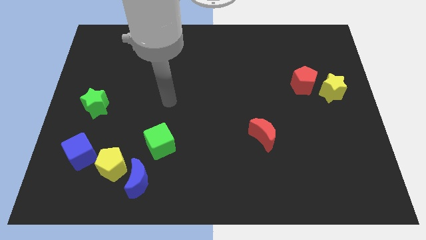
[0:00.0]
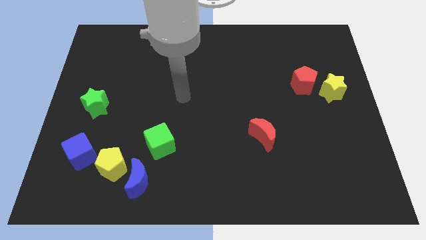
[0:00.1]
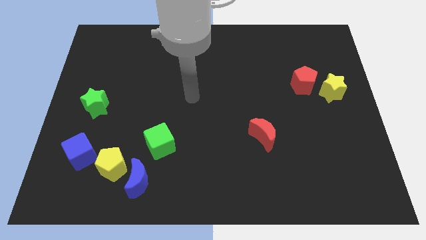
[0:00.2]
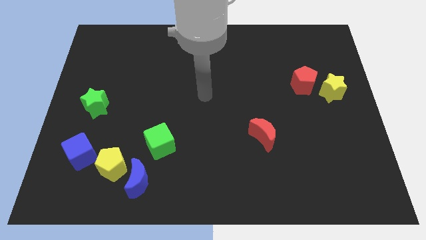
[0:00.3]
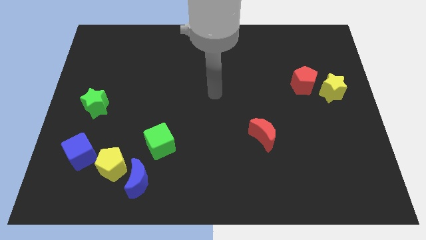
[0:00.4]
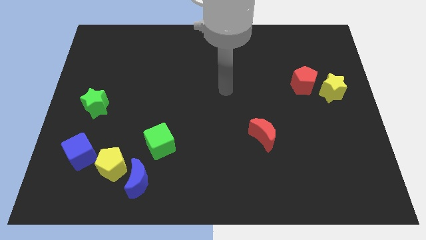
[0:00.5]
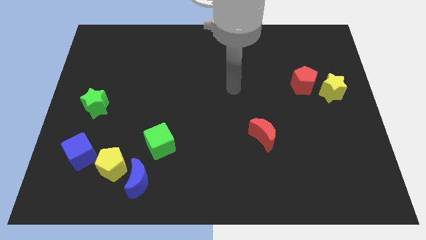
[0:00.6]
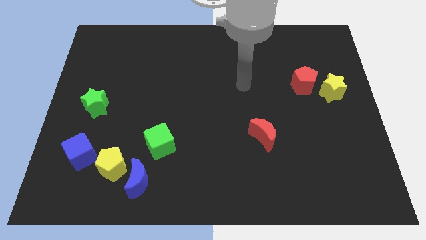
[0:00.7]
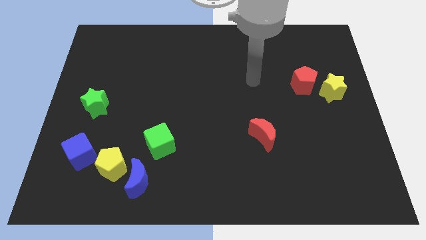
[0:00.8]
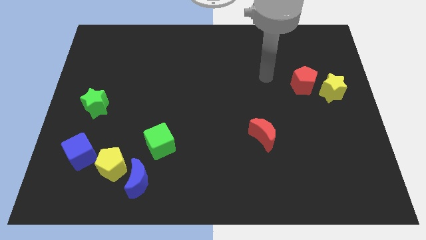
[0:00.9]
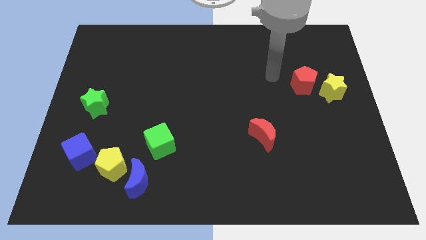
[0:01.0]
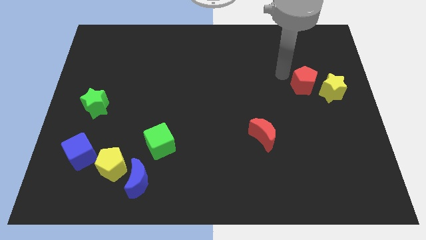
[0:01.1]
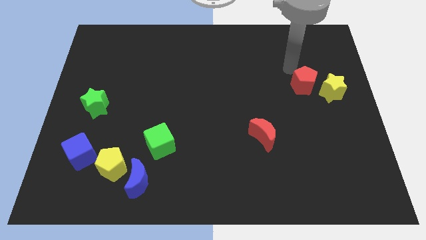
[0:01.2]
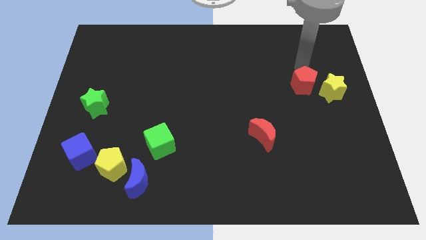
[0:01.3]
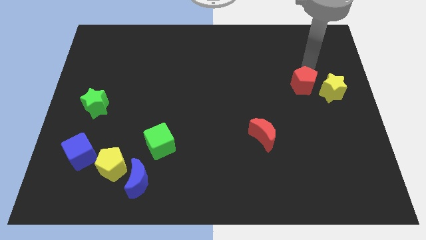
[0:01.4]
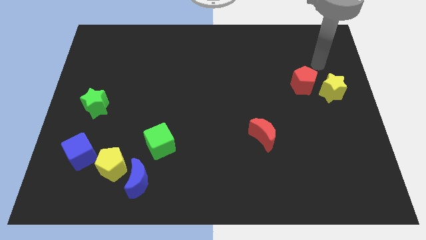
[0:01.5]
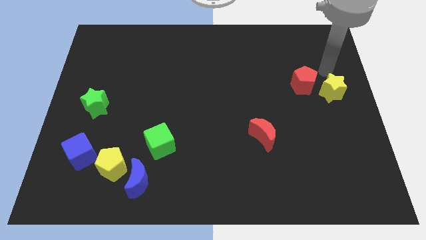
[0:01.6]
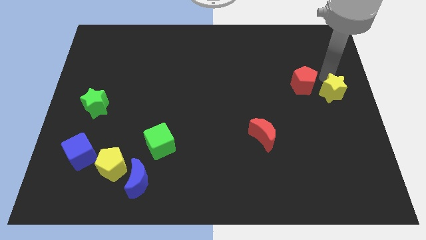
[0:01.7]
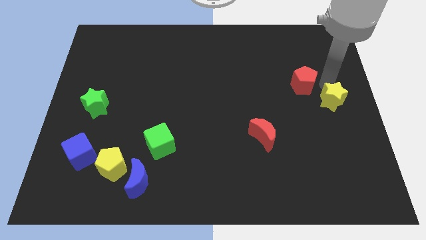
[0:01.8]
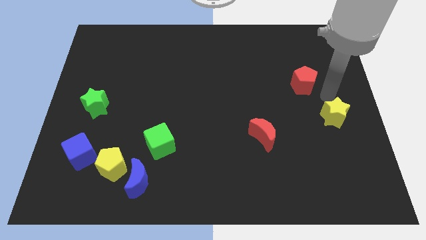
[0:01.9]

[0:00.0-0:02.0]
pull the red pentagon apart from the yellow star

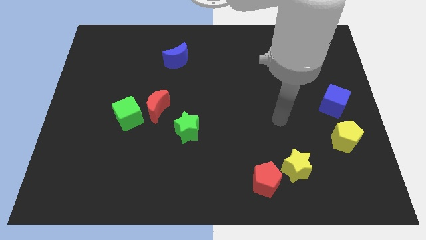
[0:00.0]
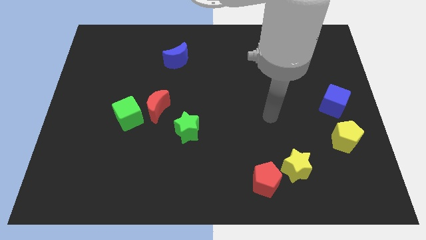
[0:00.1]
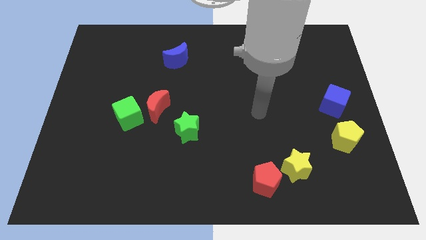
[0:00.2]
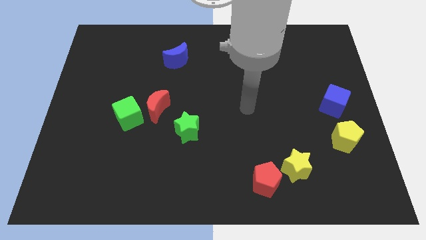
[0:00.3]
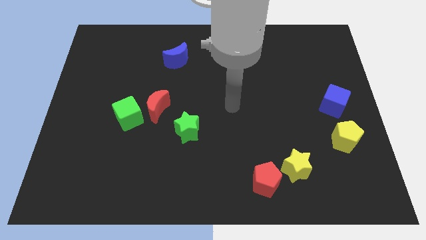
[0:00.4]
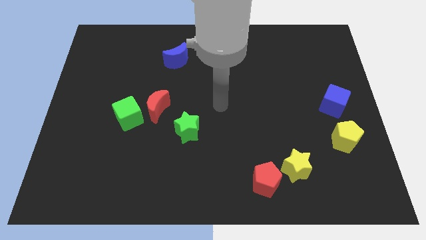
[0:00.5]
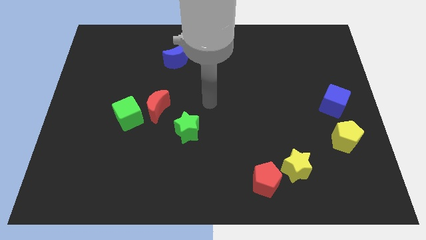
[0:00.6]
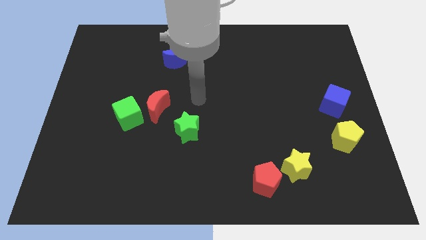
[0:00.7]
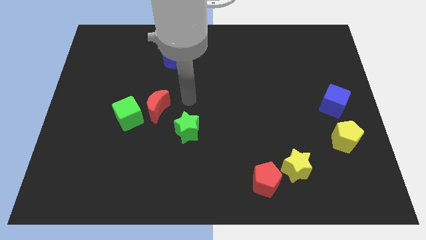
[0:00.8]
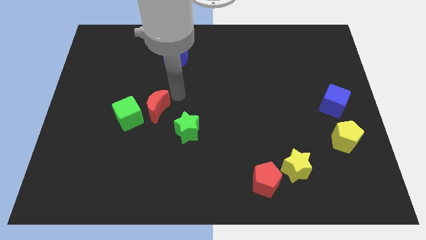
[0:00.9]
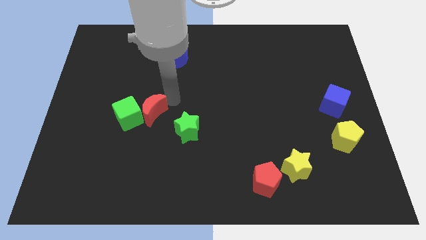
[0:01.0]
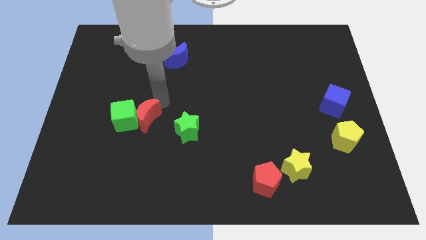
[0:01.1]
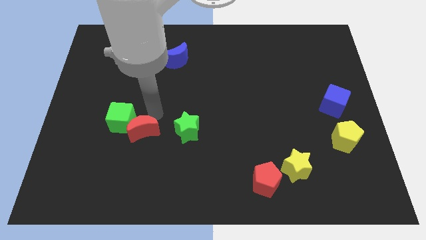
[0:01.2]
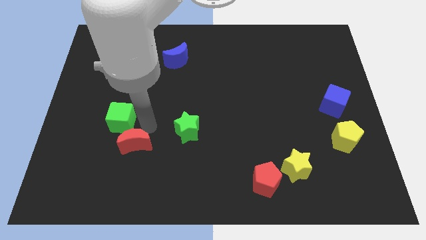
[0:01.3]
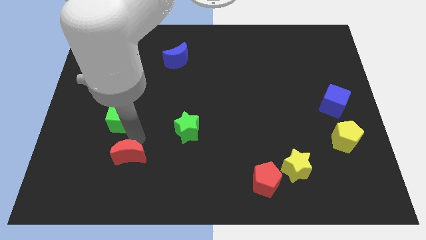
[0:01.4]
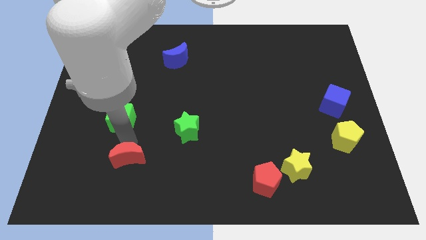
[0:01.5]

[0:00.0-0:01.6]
pull the green cube apart from the red moon

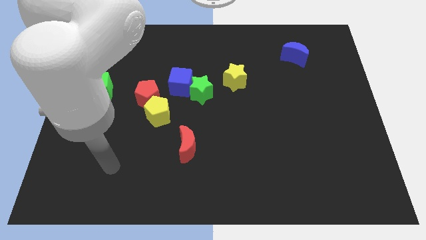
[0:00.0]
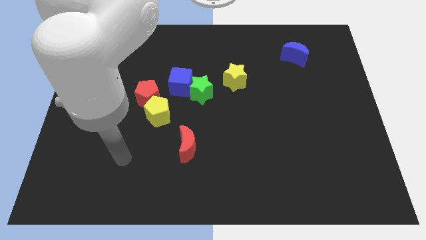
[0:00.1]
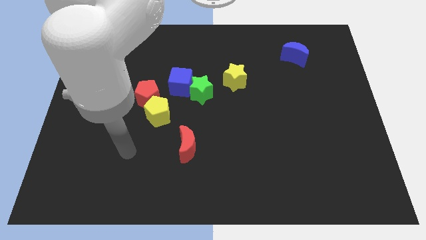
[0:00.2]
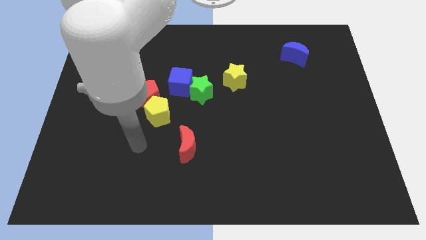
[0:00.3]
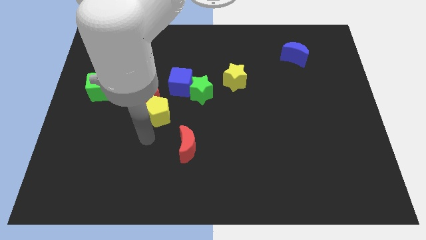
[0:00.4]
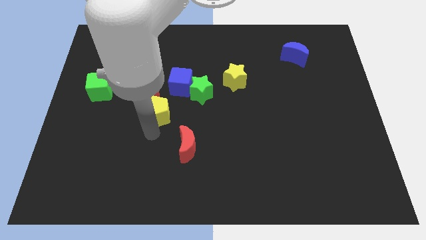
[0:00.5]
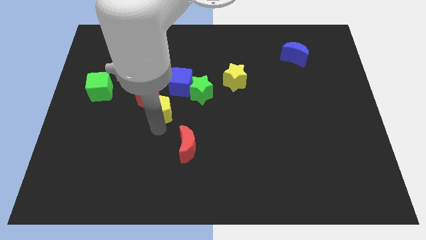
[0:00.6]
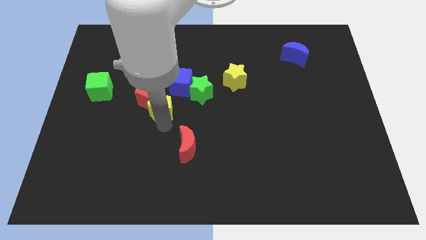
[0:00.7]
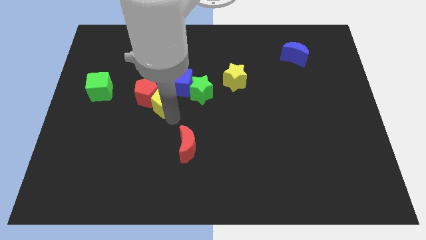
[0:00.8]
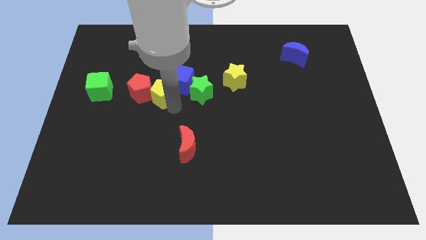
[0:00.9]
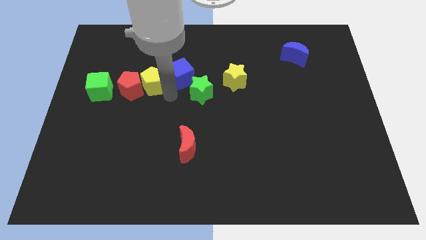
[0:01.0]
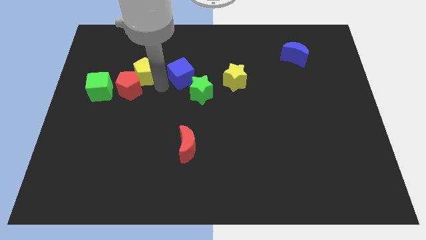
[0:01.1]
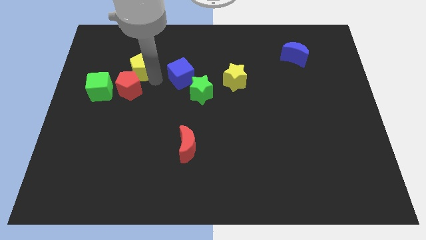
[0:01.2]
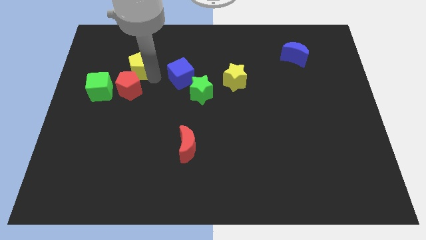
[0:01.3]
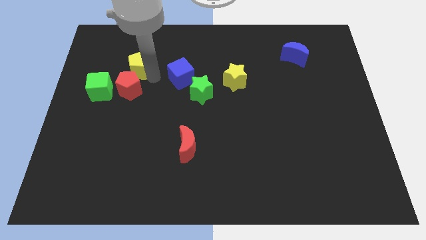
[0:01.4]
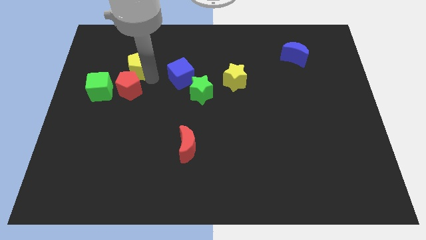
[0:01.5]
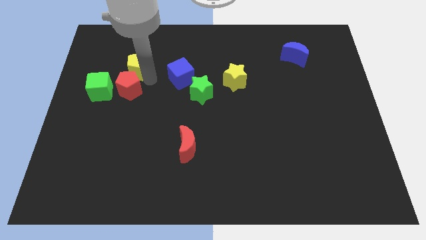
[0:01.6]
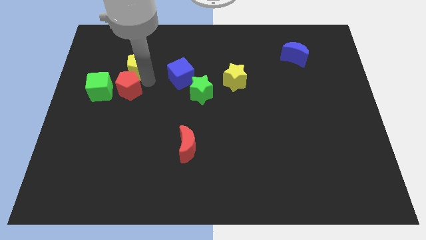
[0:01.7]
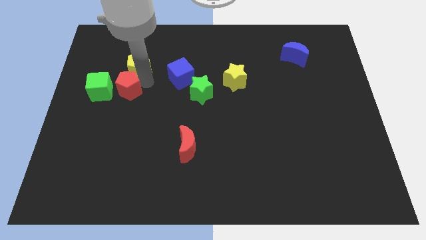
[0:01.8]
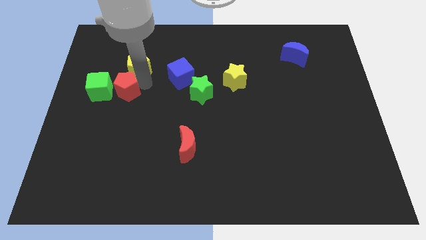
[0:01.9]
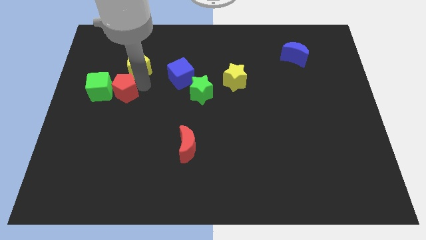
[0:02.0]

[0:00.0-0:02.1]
pull the red pentagon apart from the yellow pentagon and blue cube

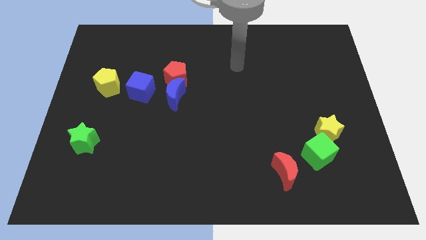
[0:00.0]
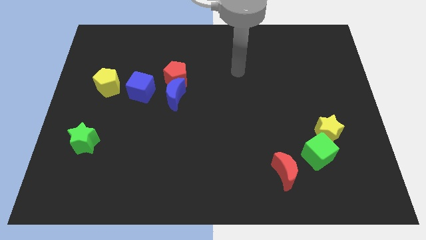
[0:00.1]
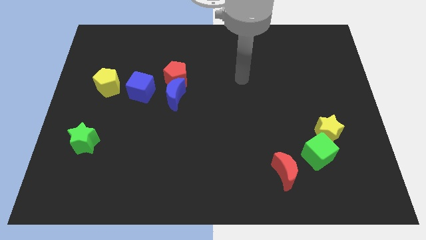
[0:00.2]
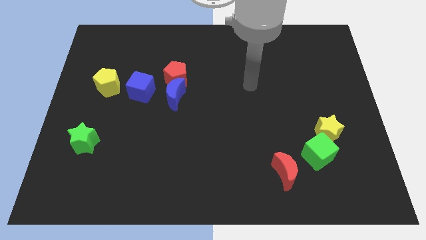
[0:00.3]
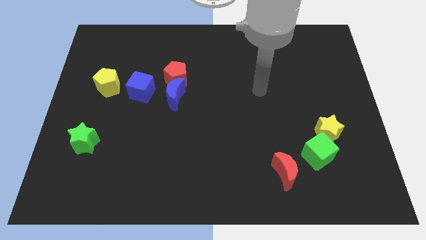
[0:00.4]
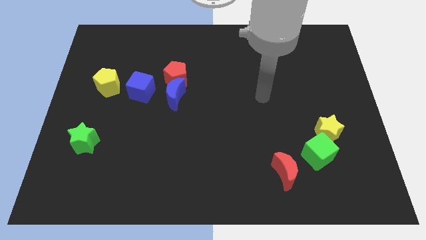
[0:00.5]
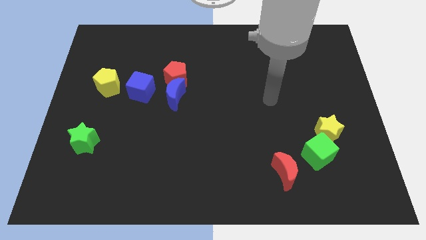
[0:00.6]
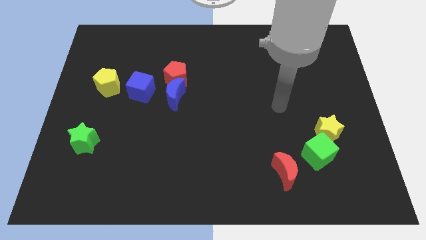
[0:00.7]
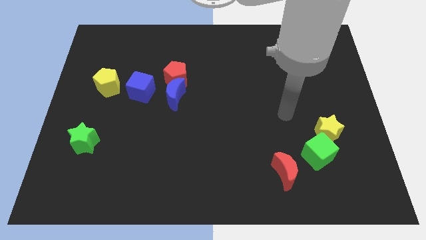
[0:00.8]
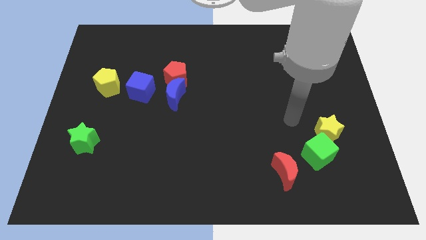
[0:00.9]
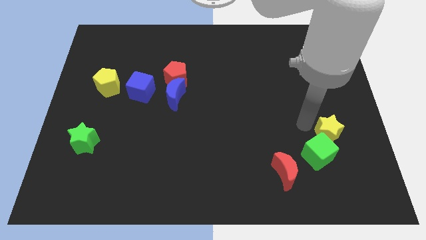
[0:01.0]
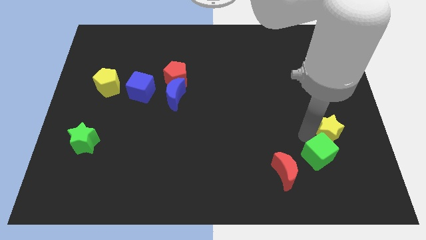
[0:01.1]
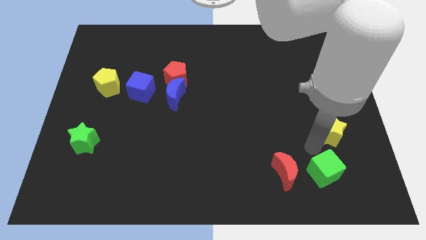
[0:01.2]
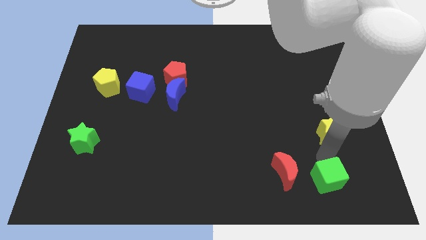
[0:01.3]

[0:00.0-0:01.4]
separate the yellow star from the green cube

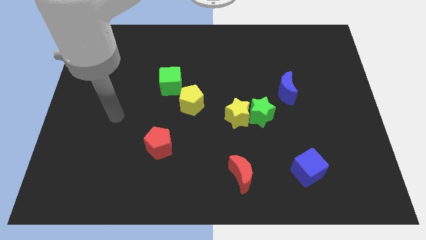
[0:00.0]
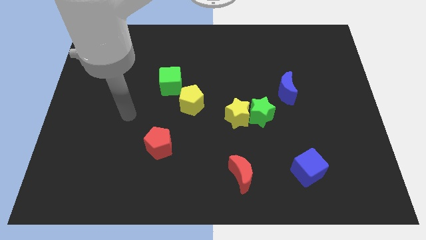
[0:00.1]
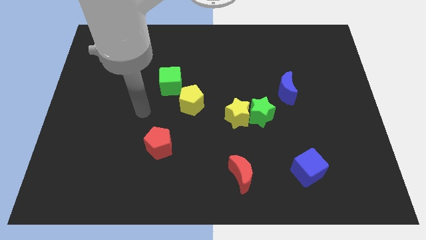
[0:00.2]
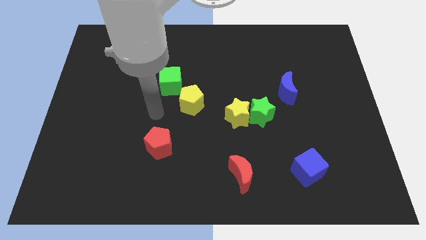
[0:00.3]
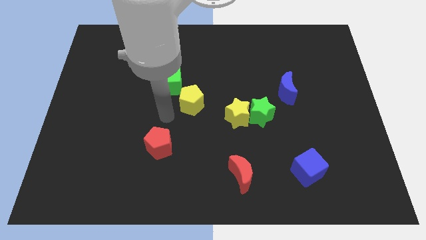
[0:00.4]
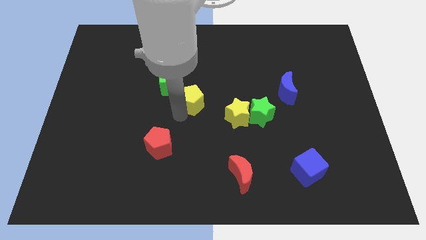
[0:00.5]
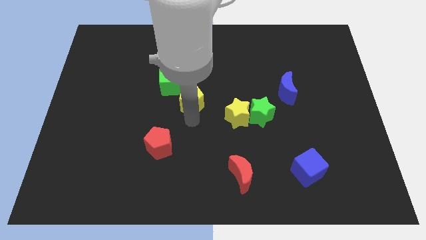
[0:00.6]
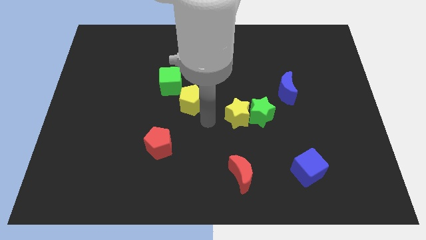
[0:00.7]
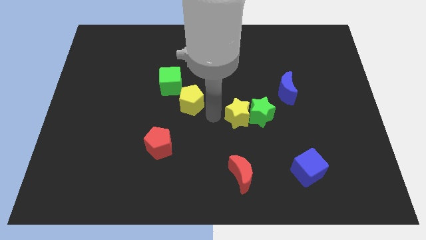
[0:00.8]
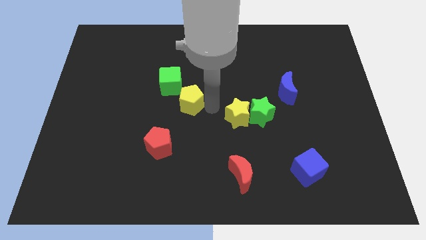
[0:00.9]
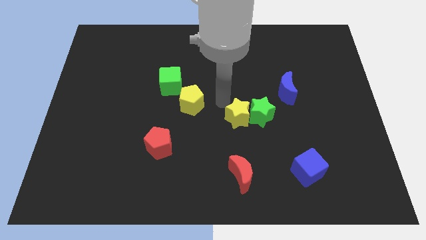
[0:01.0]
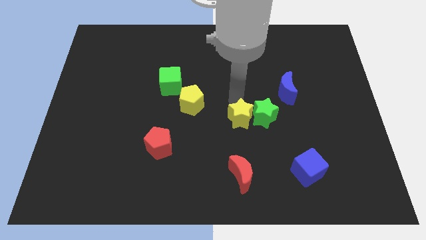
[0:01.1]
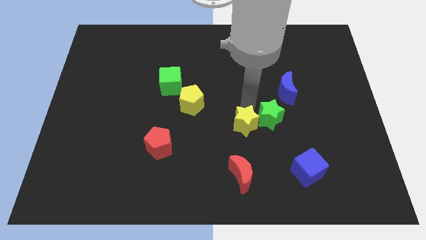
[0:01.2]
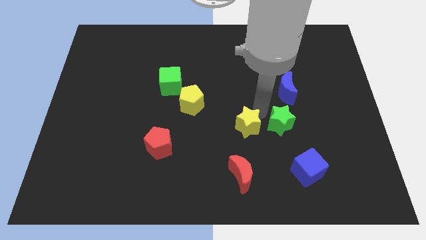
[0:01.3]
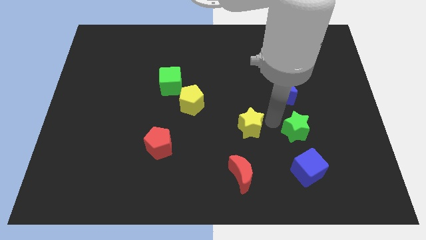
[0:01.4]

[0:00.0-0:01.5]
separate the yellow star from the green star

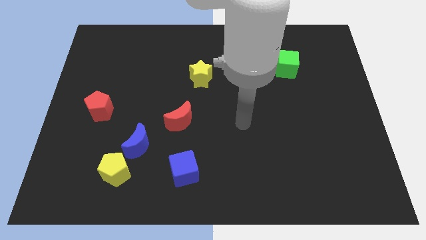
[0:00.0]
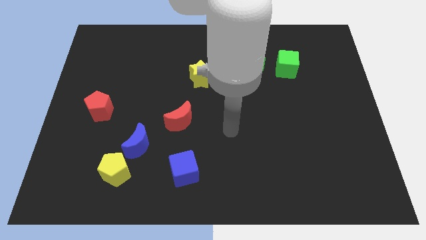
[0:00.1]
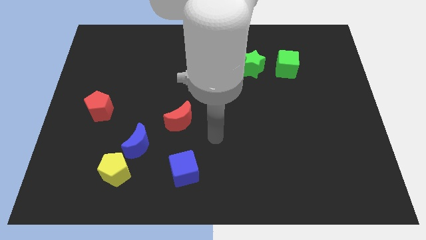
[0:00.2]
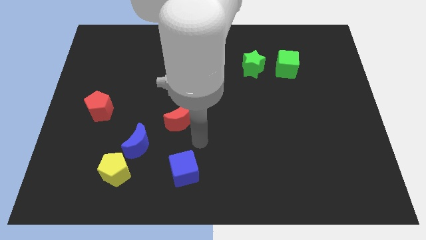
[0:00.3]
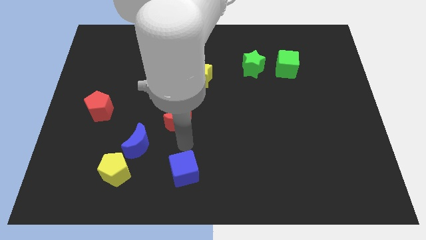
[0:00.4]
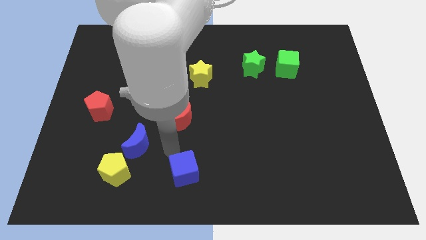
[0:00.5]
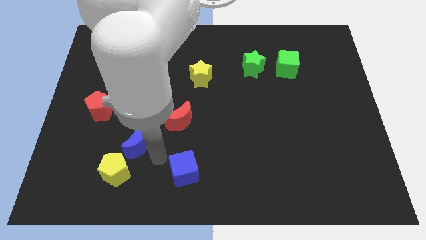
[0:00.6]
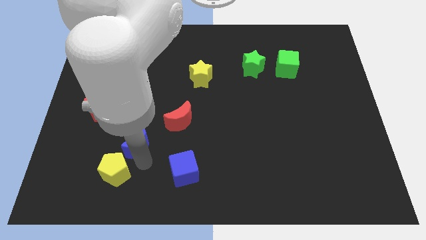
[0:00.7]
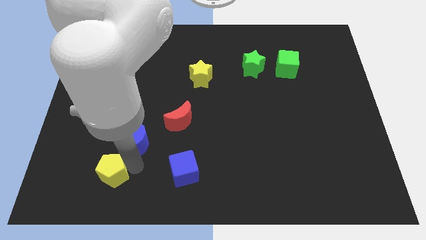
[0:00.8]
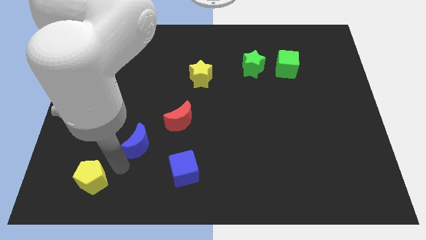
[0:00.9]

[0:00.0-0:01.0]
move the blue moon away from the yellow pentagon
